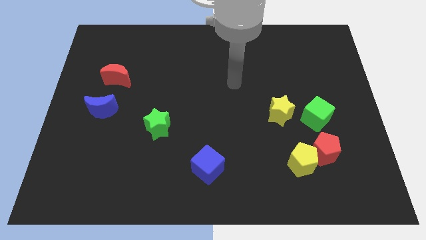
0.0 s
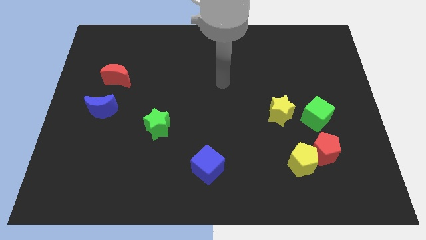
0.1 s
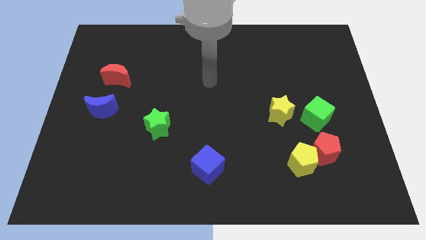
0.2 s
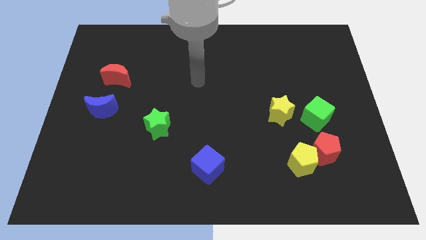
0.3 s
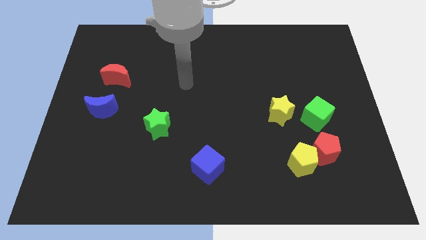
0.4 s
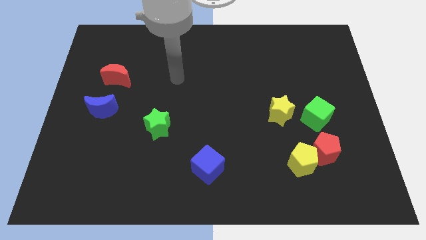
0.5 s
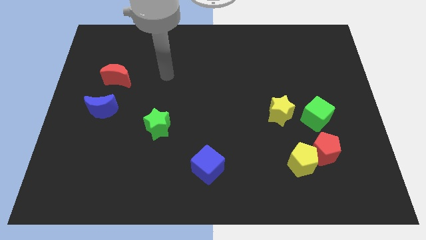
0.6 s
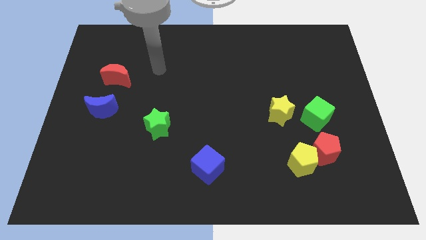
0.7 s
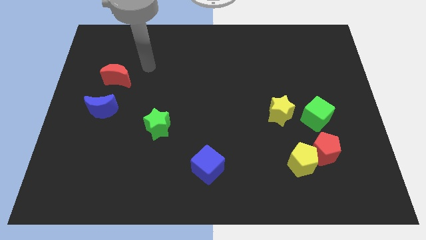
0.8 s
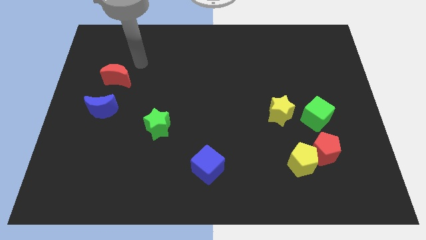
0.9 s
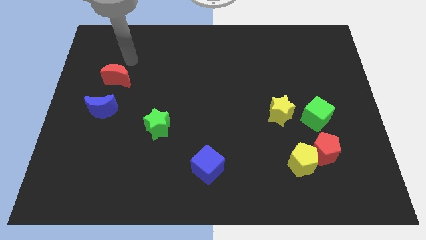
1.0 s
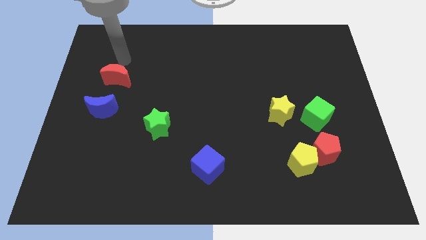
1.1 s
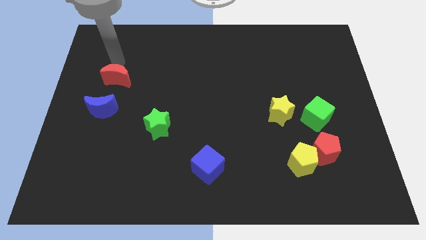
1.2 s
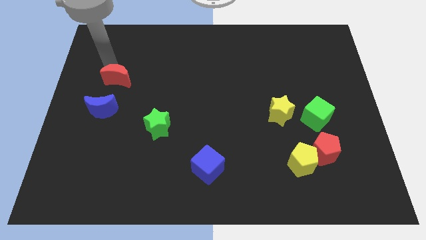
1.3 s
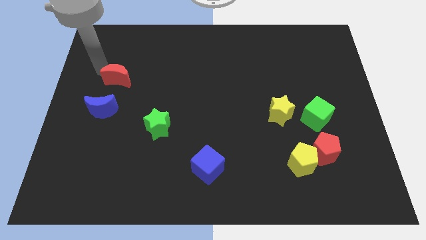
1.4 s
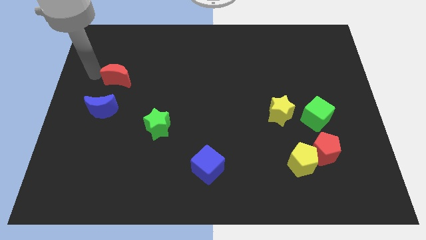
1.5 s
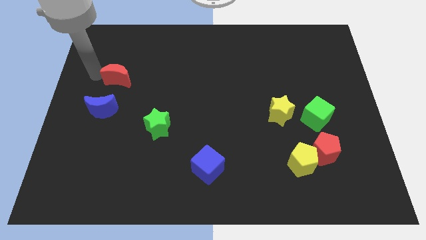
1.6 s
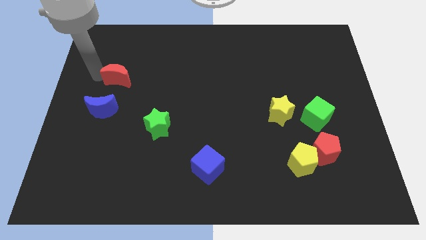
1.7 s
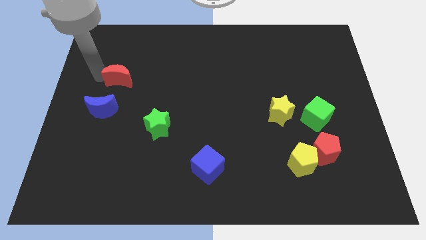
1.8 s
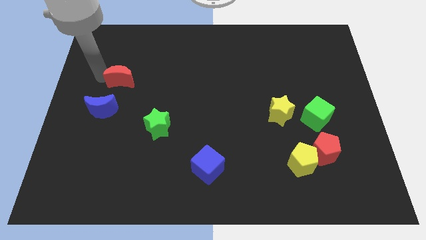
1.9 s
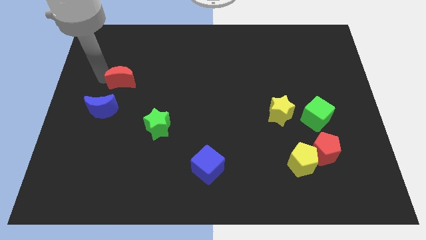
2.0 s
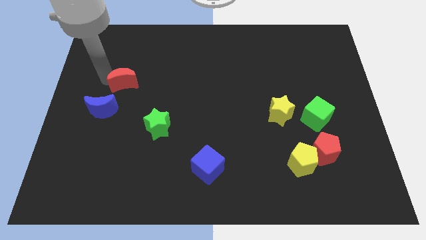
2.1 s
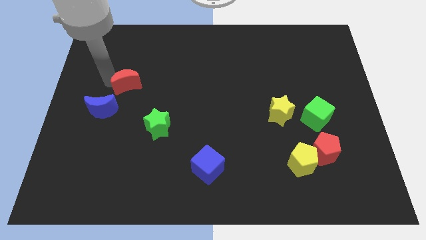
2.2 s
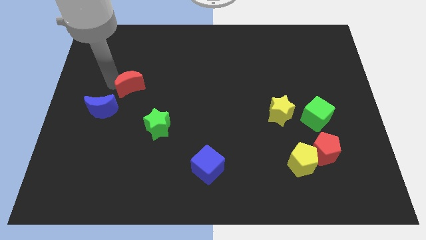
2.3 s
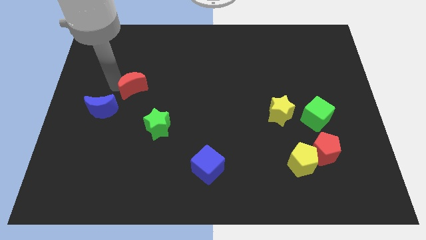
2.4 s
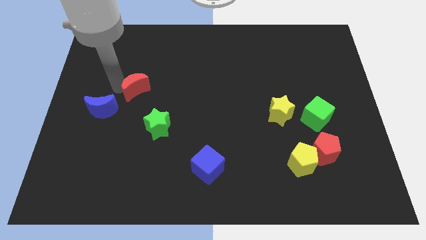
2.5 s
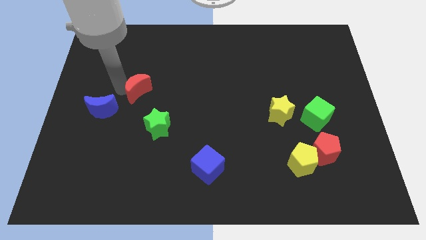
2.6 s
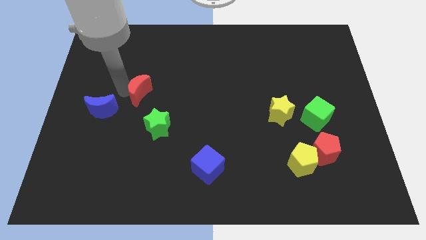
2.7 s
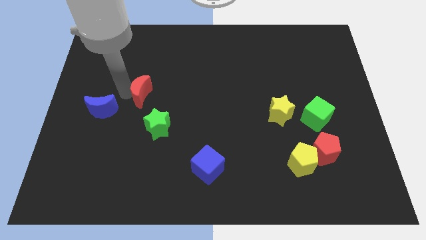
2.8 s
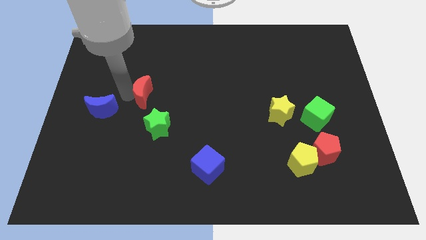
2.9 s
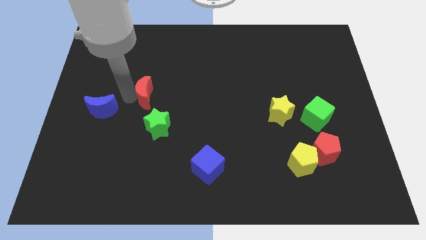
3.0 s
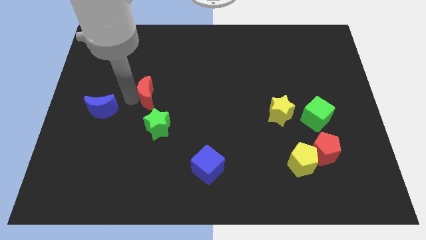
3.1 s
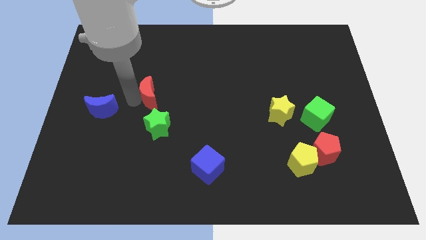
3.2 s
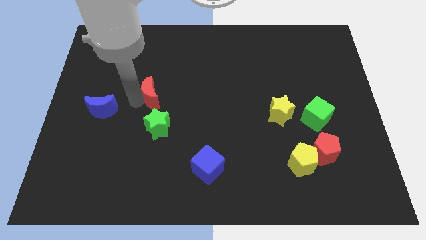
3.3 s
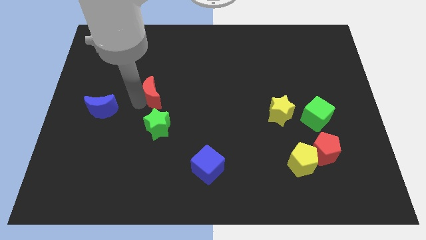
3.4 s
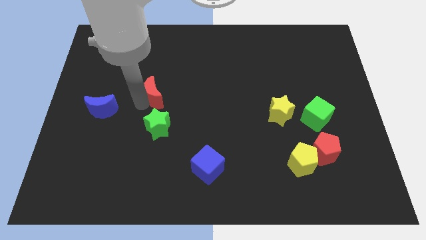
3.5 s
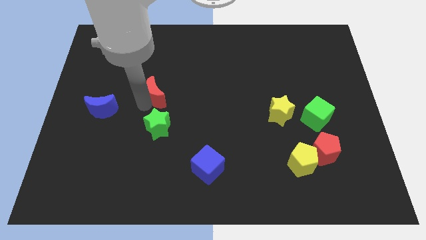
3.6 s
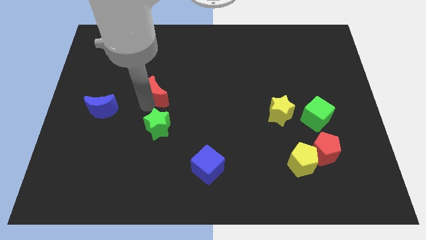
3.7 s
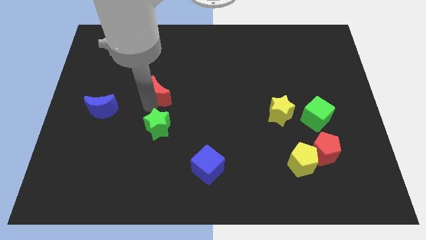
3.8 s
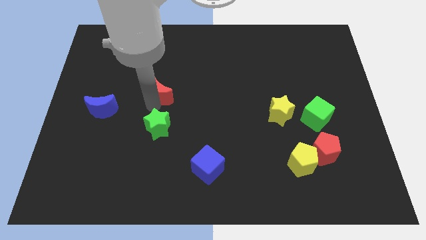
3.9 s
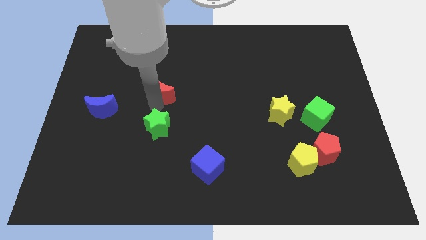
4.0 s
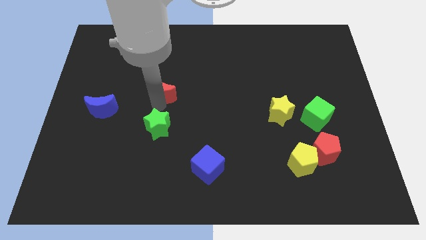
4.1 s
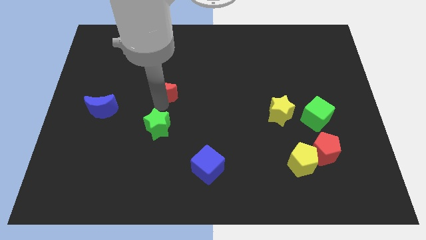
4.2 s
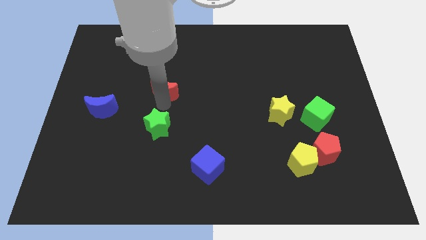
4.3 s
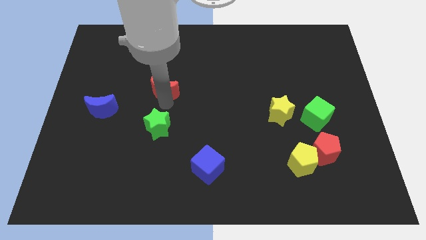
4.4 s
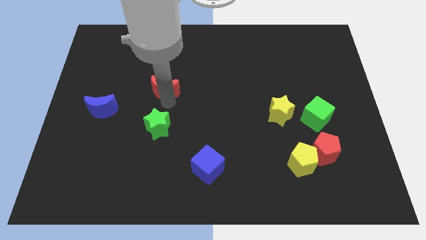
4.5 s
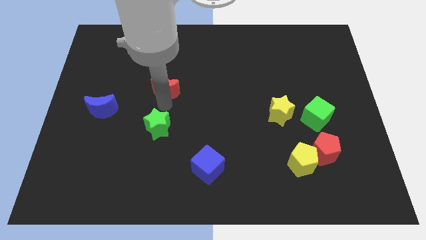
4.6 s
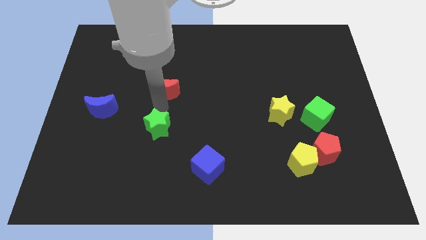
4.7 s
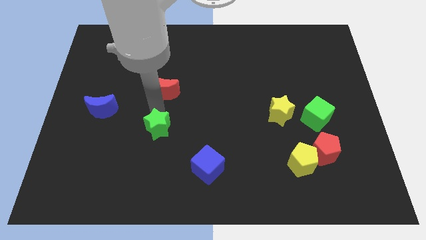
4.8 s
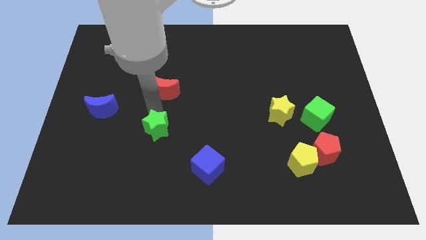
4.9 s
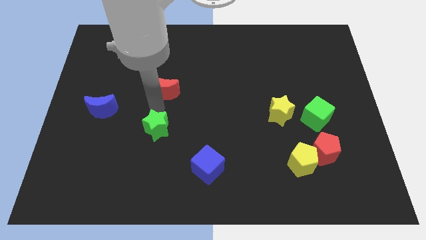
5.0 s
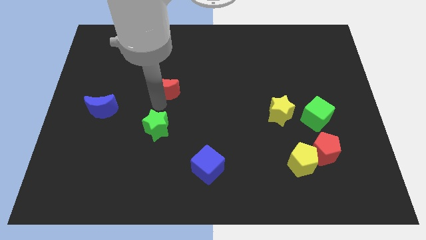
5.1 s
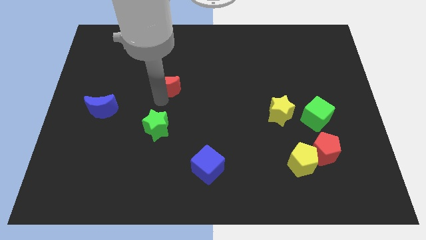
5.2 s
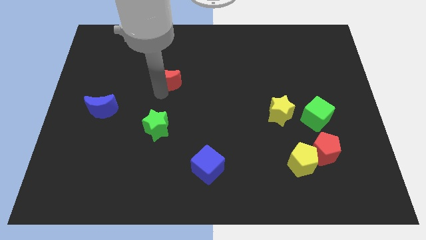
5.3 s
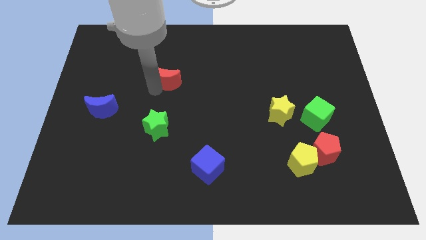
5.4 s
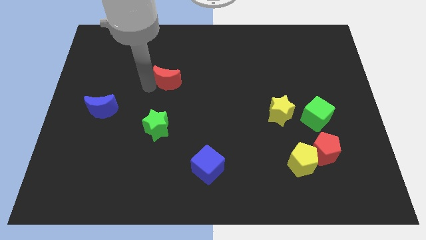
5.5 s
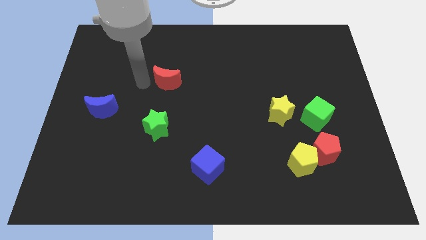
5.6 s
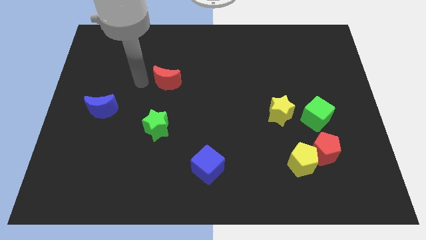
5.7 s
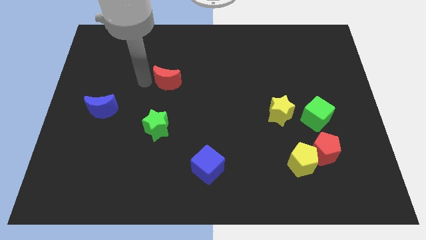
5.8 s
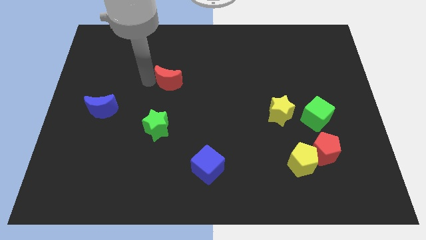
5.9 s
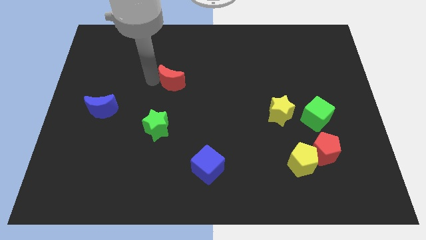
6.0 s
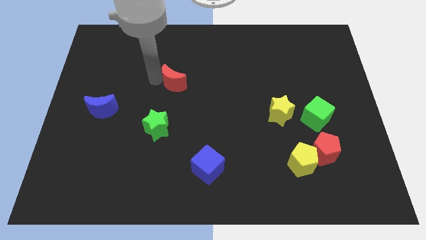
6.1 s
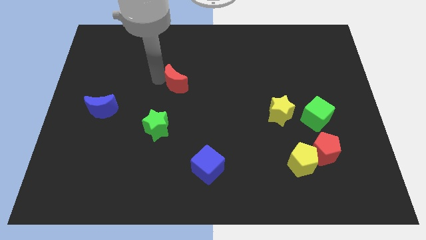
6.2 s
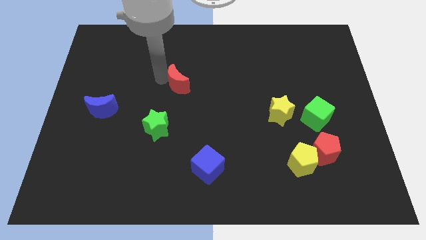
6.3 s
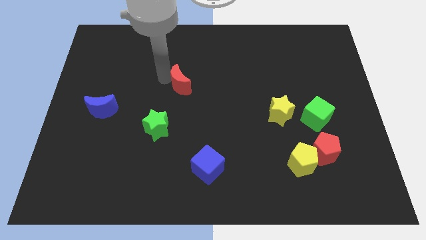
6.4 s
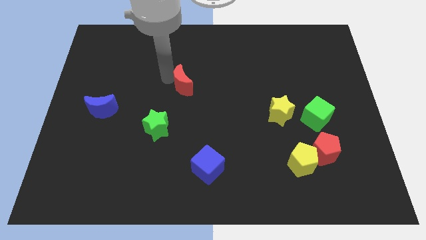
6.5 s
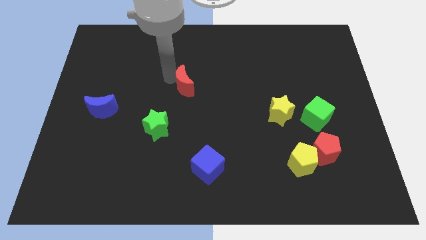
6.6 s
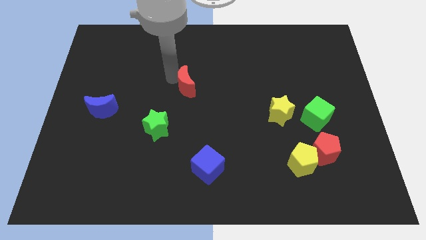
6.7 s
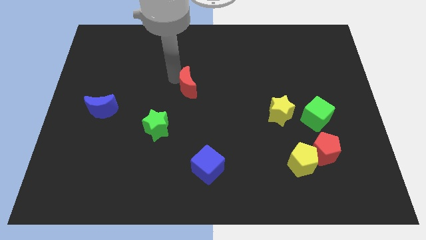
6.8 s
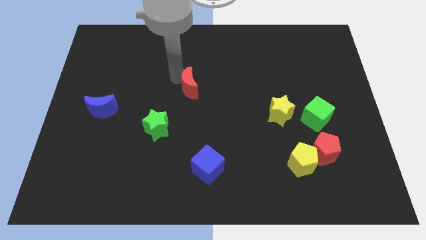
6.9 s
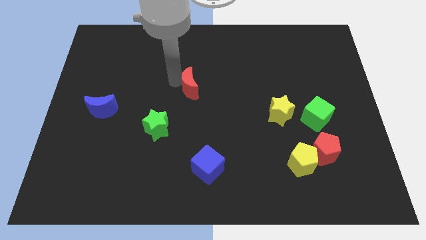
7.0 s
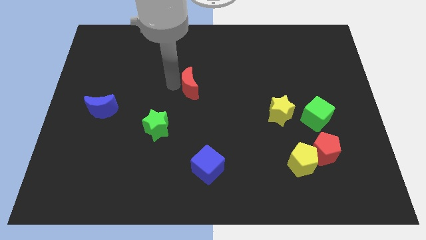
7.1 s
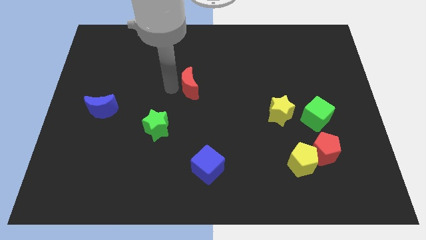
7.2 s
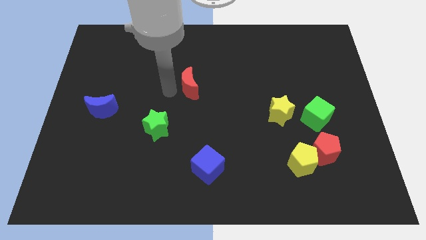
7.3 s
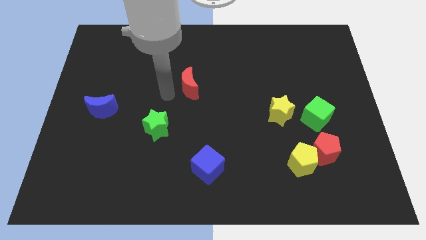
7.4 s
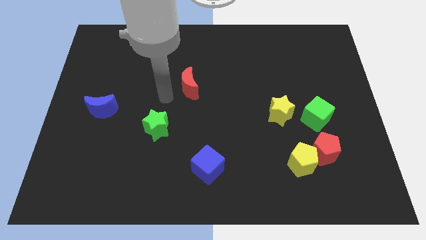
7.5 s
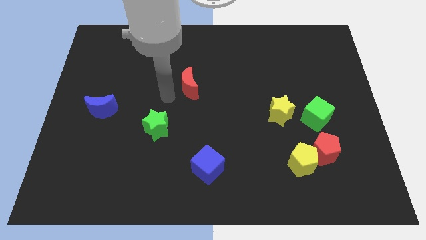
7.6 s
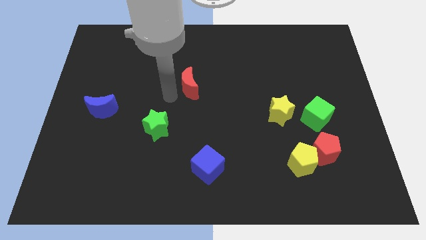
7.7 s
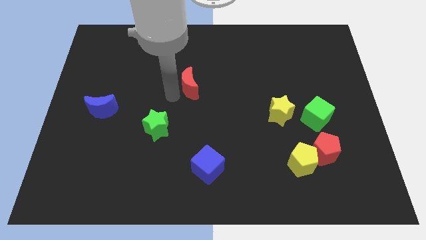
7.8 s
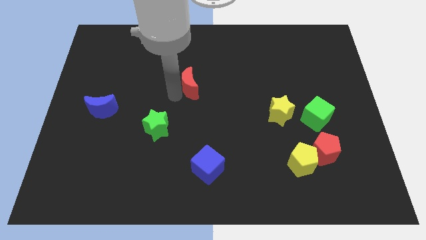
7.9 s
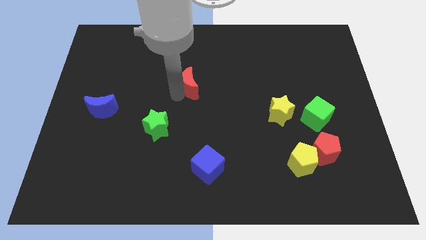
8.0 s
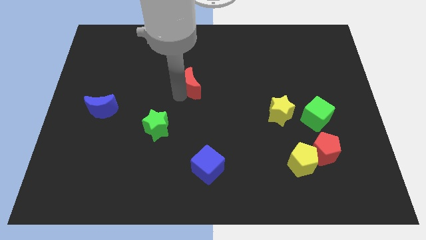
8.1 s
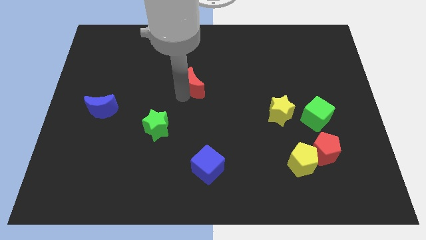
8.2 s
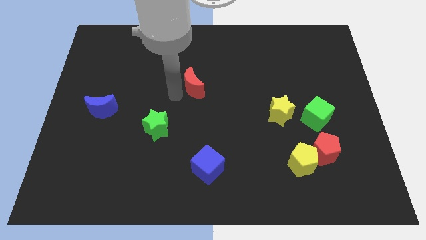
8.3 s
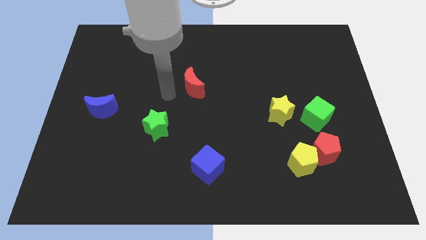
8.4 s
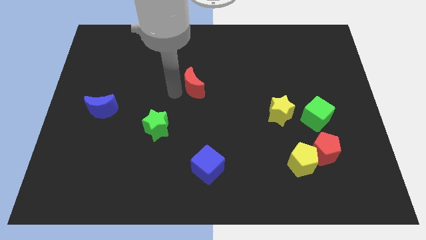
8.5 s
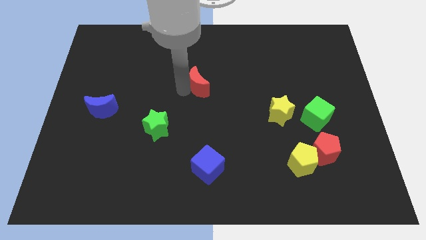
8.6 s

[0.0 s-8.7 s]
slide the red moon right
